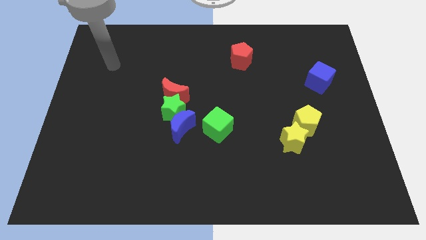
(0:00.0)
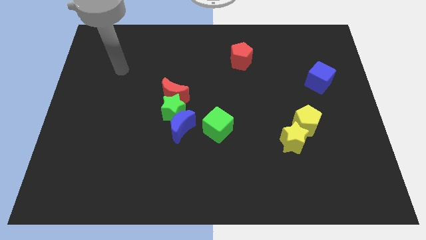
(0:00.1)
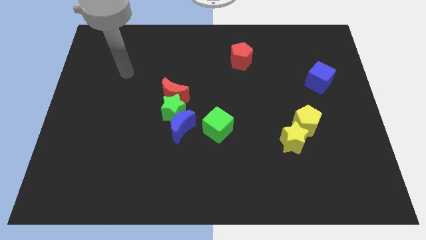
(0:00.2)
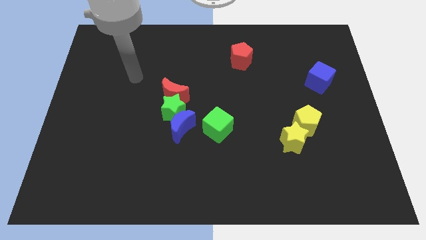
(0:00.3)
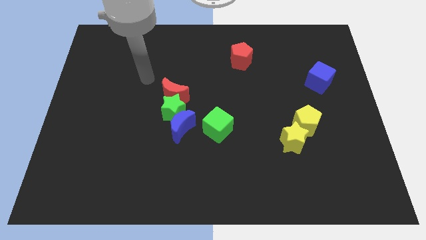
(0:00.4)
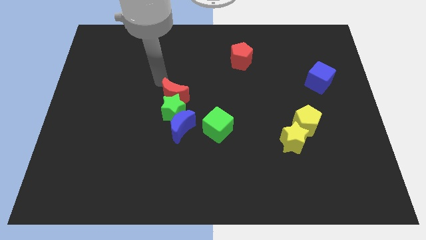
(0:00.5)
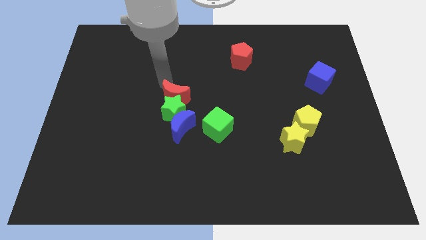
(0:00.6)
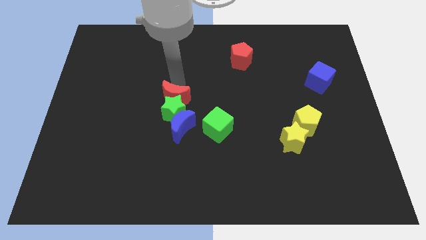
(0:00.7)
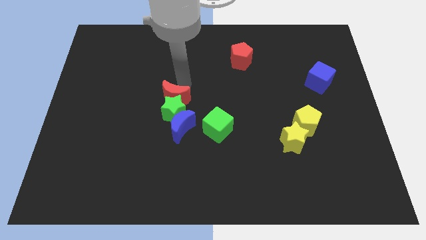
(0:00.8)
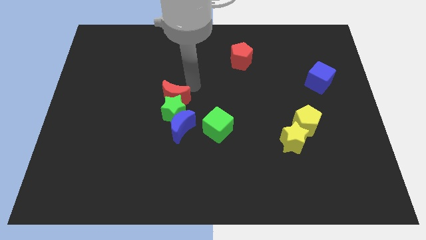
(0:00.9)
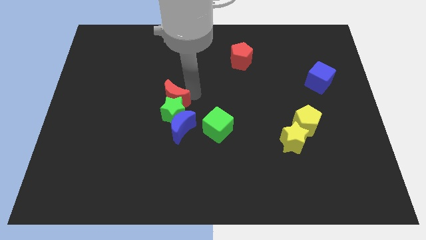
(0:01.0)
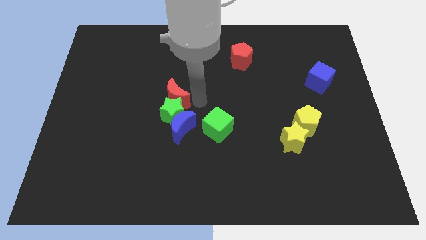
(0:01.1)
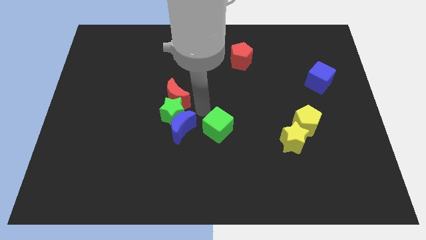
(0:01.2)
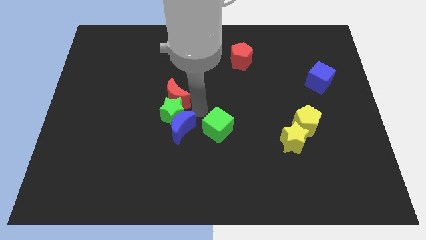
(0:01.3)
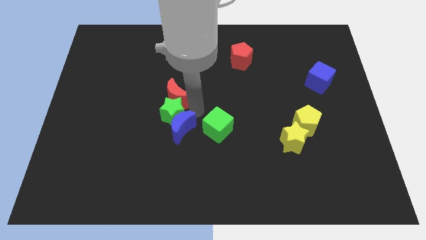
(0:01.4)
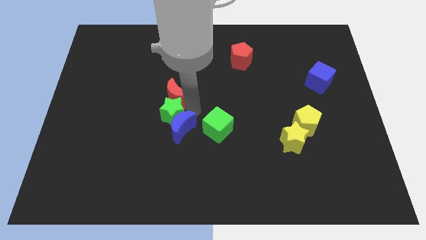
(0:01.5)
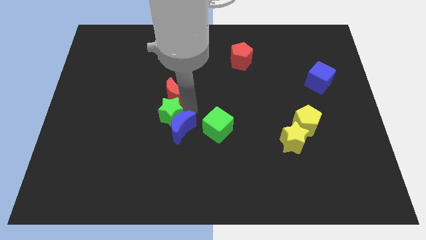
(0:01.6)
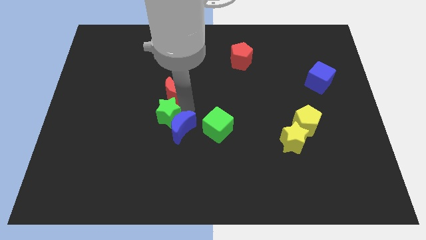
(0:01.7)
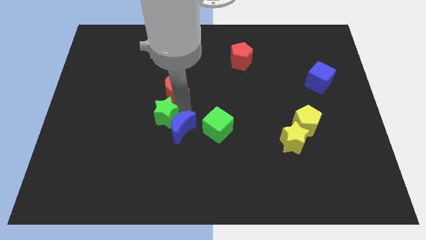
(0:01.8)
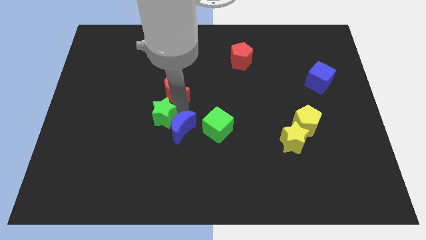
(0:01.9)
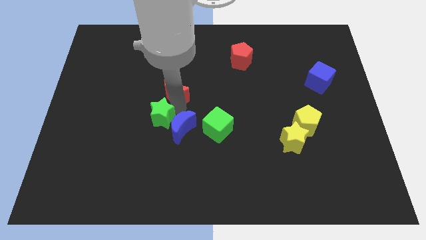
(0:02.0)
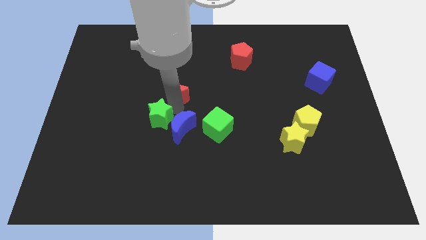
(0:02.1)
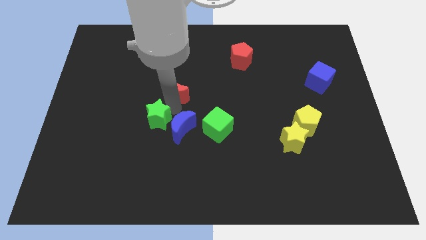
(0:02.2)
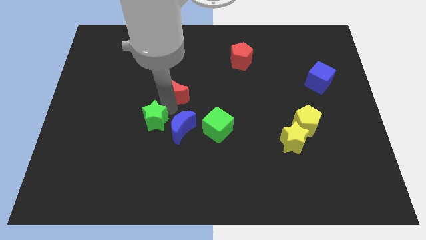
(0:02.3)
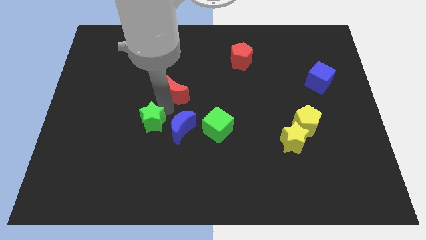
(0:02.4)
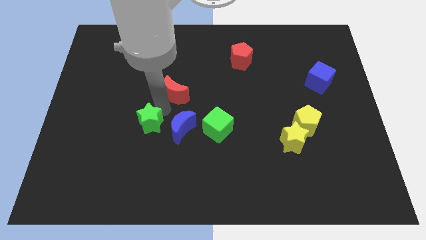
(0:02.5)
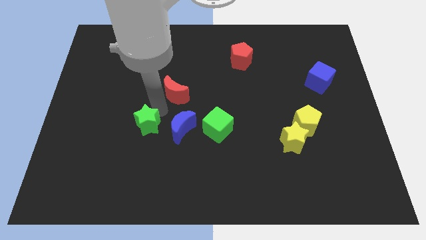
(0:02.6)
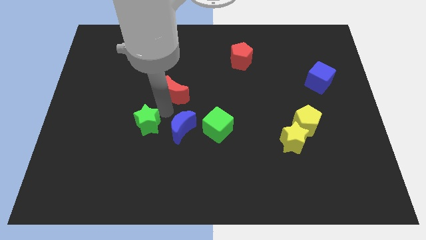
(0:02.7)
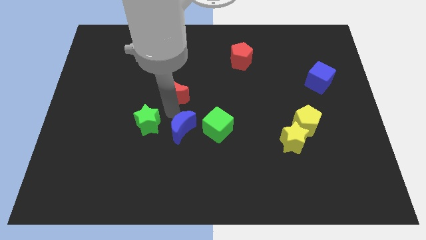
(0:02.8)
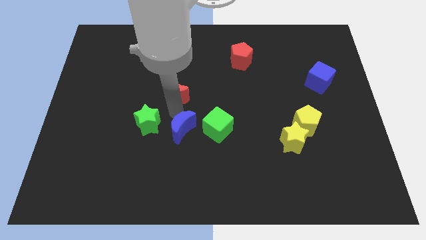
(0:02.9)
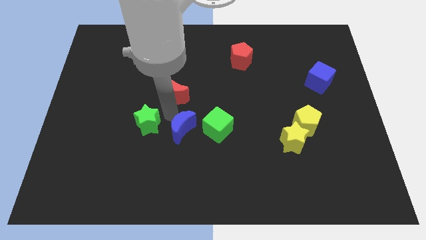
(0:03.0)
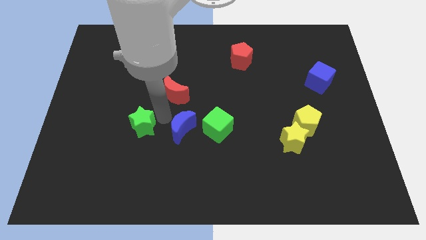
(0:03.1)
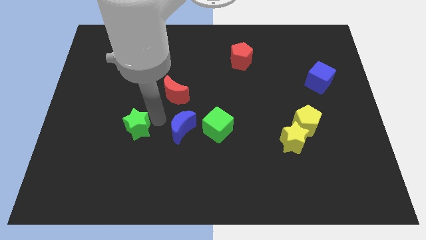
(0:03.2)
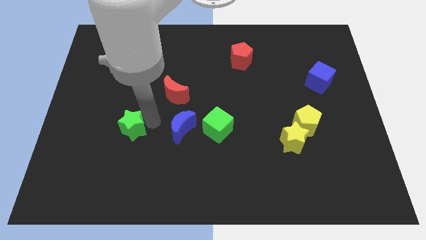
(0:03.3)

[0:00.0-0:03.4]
pull the green star apart from the blue moon and red moon

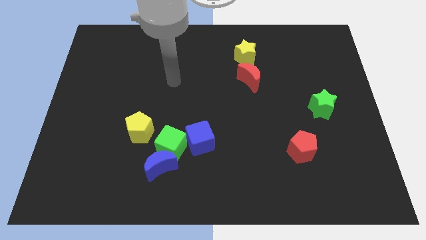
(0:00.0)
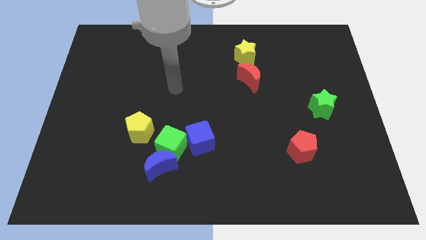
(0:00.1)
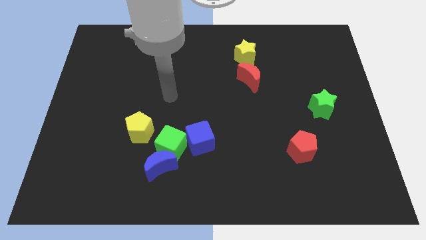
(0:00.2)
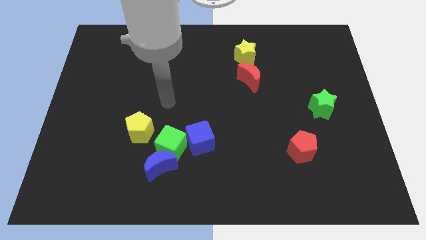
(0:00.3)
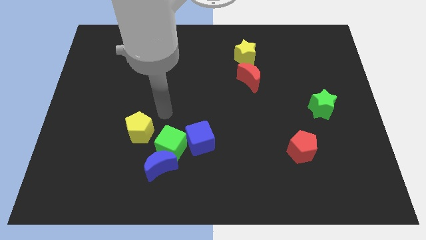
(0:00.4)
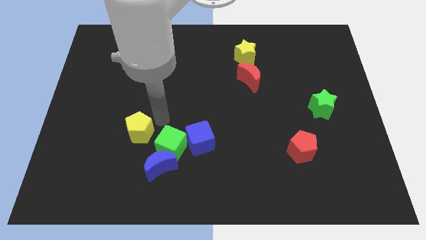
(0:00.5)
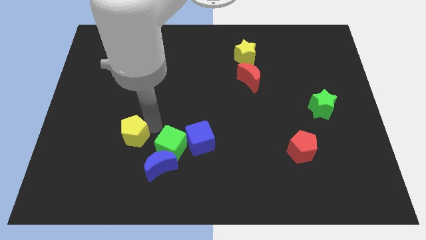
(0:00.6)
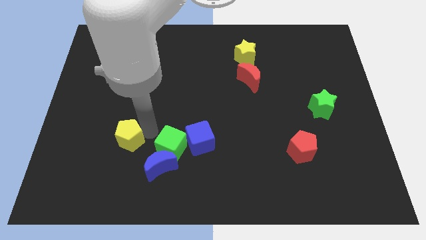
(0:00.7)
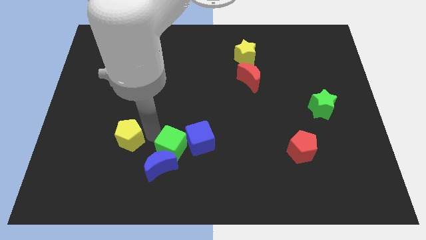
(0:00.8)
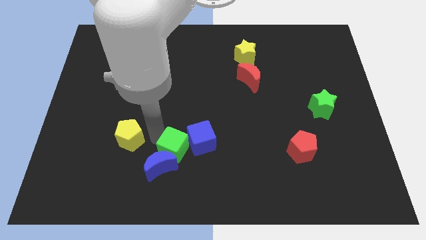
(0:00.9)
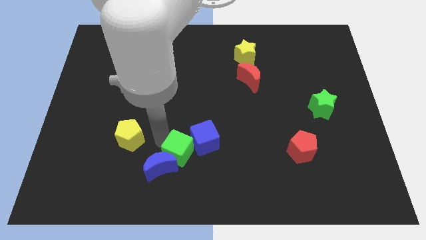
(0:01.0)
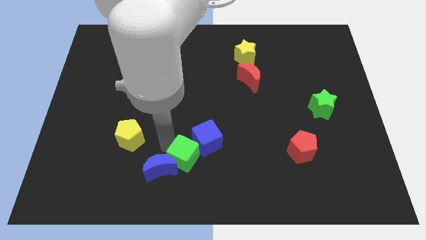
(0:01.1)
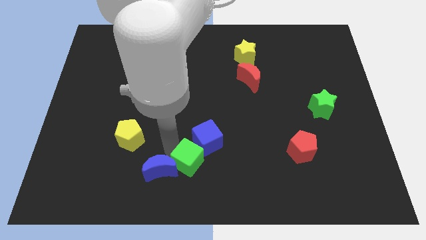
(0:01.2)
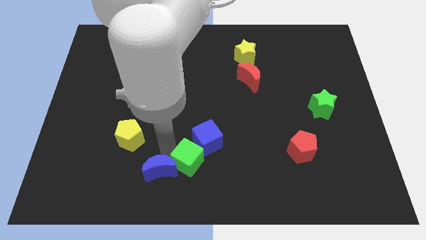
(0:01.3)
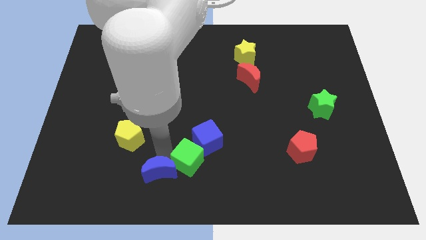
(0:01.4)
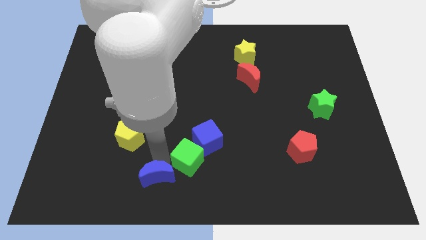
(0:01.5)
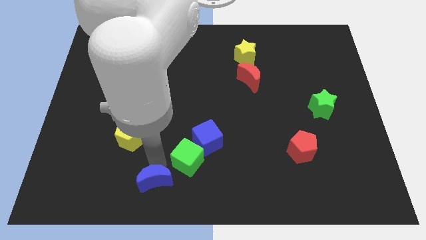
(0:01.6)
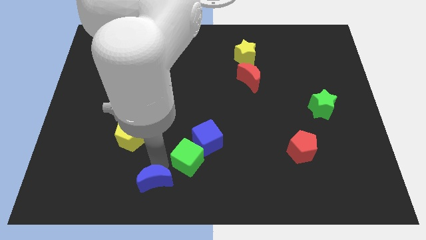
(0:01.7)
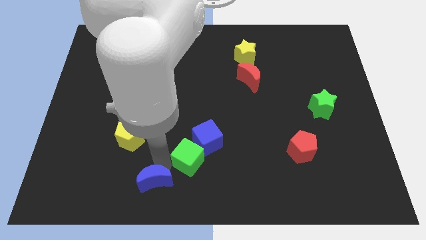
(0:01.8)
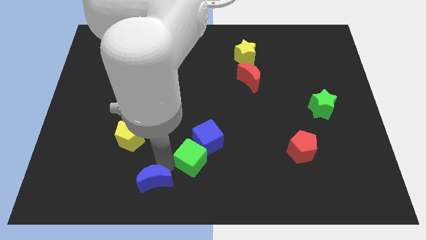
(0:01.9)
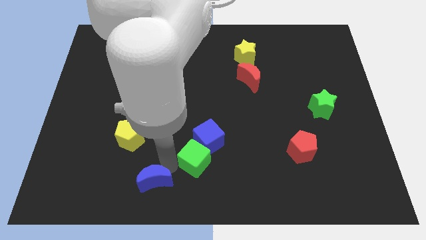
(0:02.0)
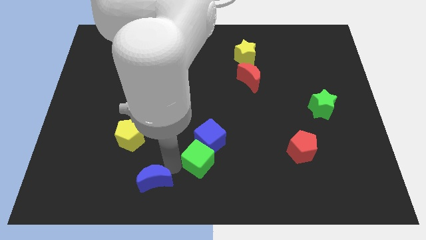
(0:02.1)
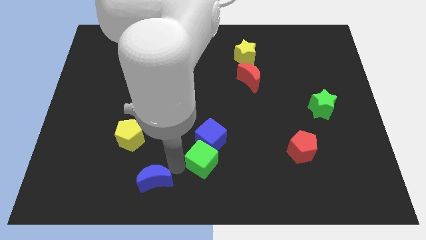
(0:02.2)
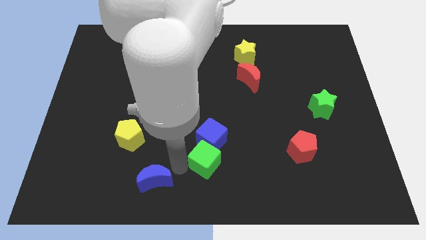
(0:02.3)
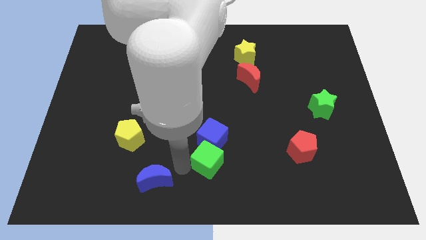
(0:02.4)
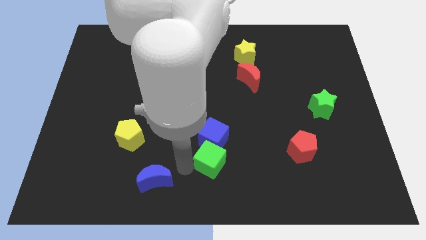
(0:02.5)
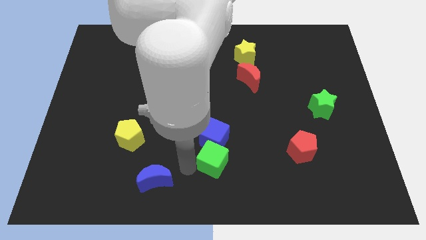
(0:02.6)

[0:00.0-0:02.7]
separate the green cube from the group

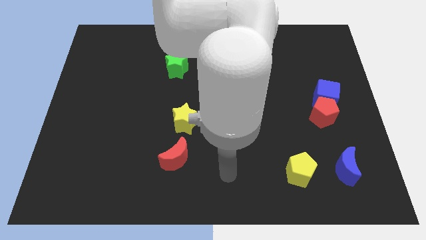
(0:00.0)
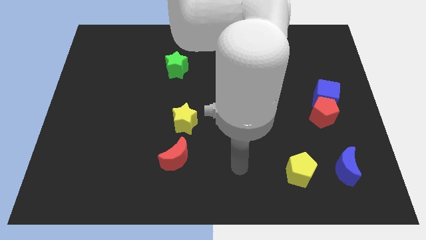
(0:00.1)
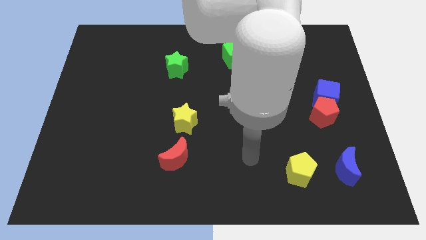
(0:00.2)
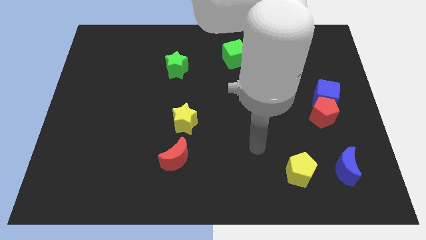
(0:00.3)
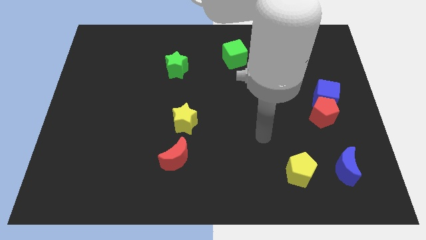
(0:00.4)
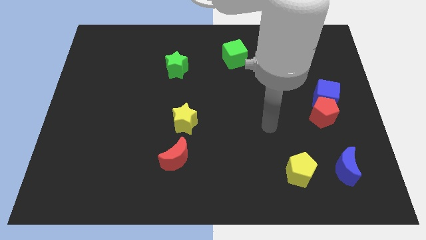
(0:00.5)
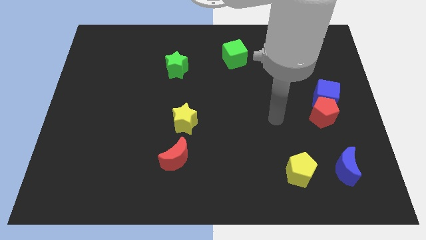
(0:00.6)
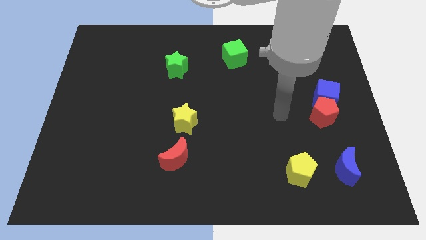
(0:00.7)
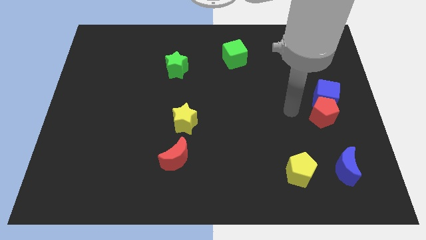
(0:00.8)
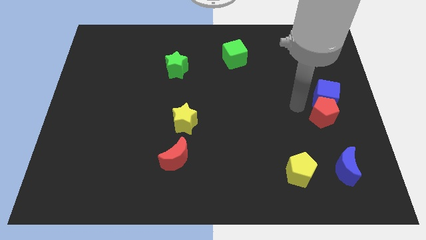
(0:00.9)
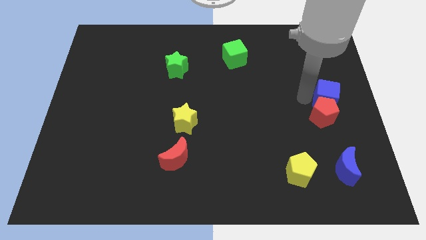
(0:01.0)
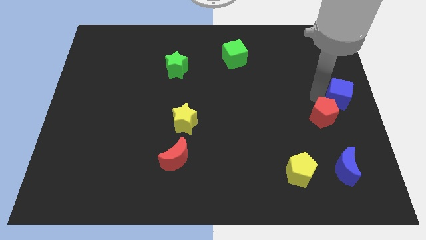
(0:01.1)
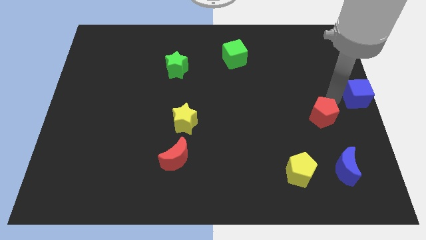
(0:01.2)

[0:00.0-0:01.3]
pull the red pentagon apart from the blue cube

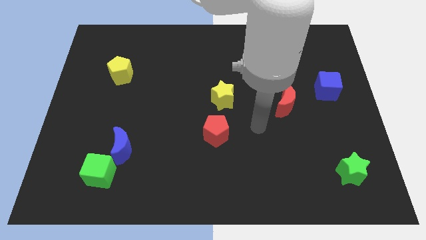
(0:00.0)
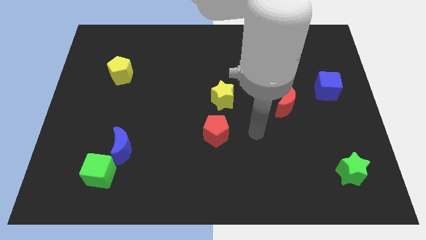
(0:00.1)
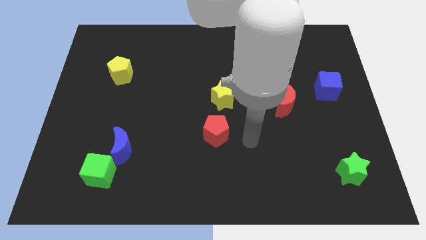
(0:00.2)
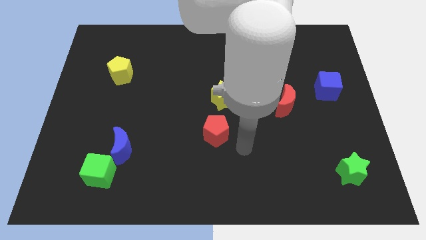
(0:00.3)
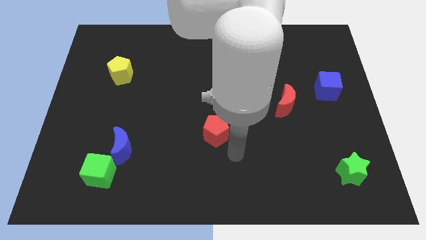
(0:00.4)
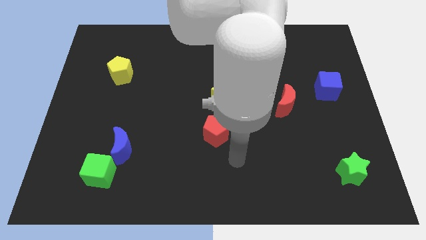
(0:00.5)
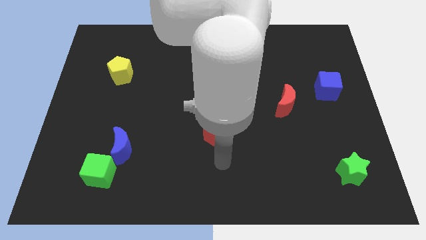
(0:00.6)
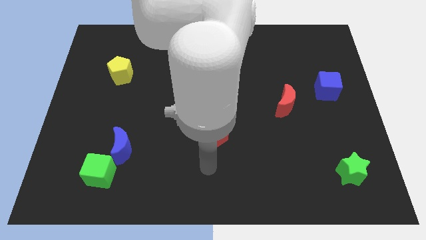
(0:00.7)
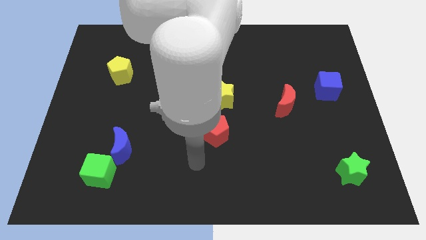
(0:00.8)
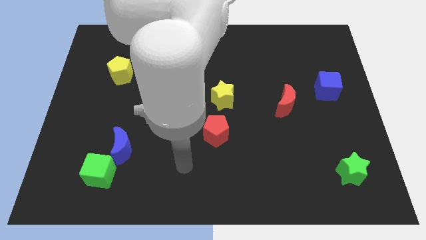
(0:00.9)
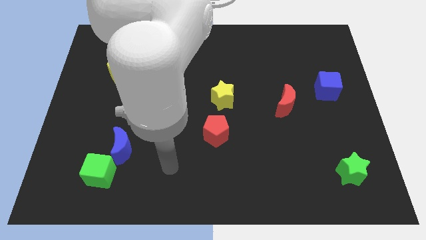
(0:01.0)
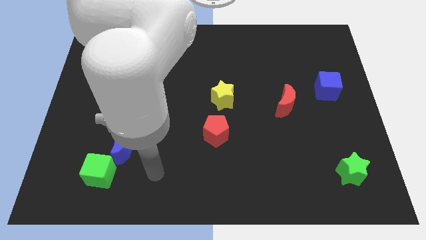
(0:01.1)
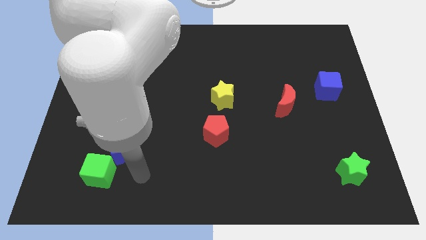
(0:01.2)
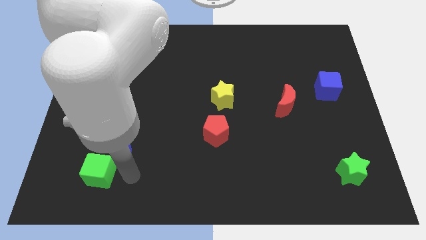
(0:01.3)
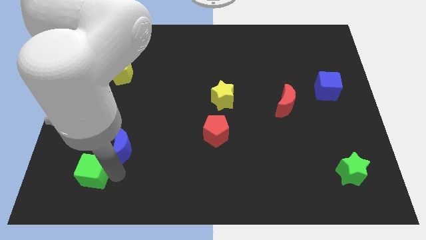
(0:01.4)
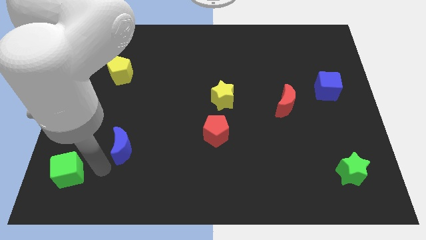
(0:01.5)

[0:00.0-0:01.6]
move the blue moon away from the green cube

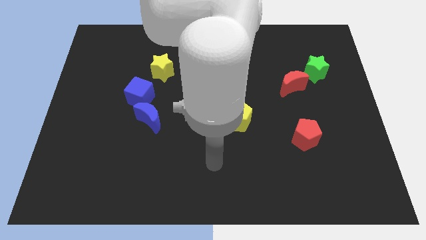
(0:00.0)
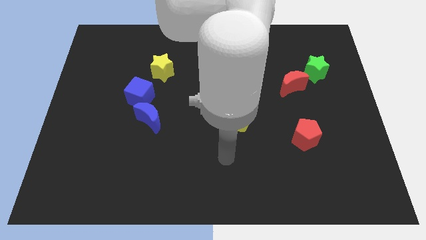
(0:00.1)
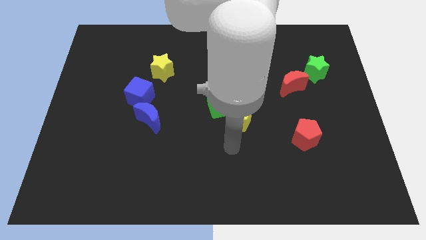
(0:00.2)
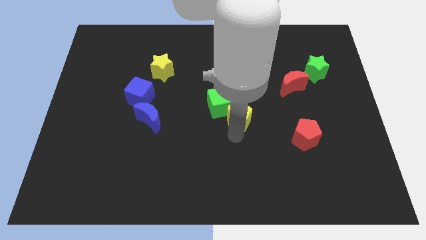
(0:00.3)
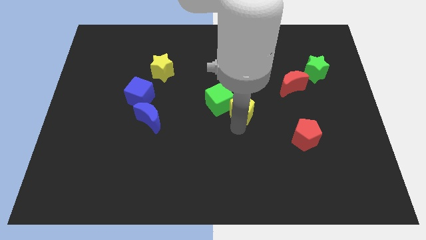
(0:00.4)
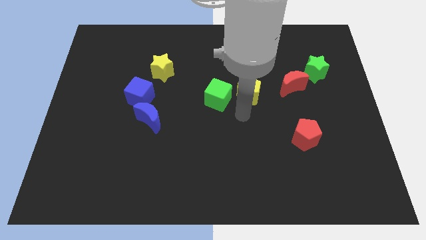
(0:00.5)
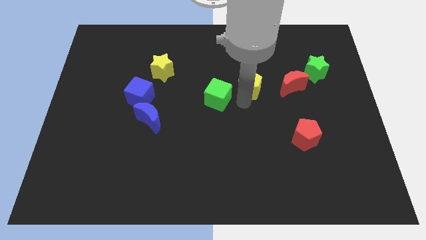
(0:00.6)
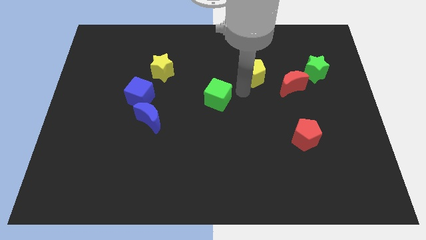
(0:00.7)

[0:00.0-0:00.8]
move the green cube away from the yellow pentagon
